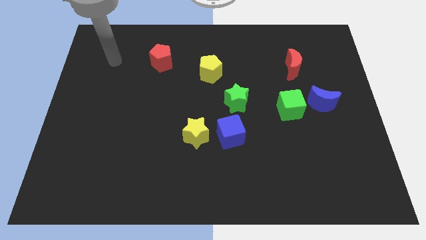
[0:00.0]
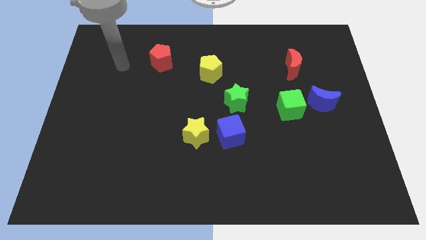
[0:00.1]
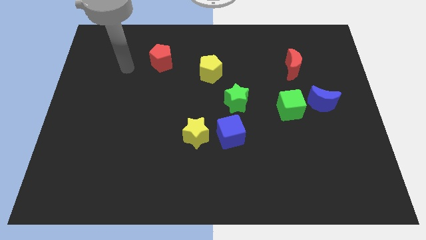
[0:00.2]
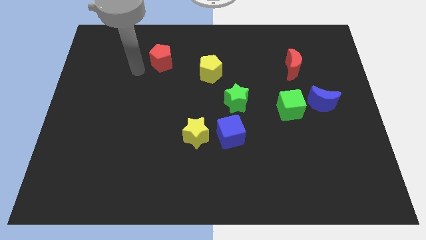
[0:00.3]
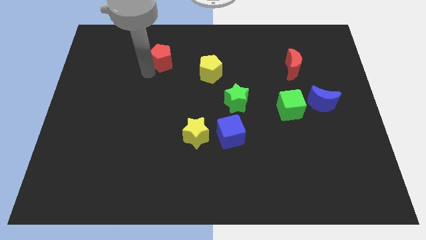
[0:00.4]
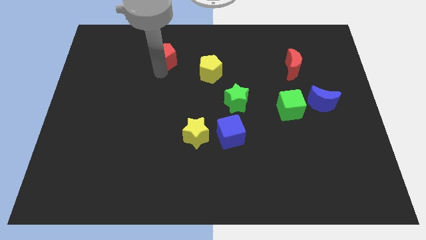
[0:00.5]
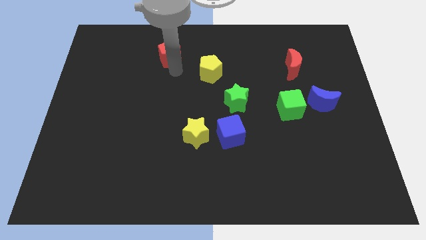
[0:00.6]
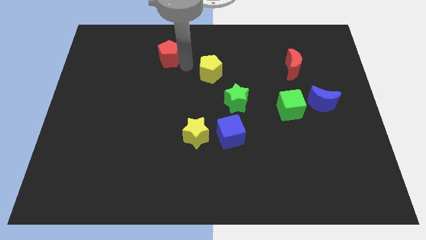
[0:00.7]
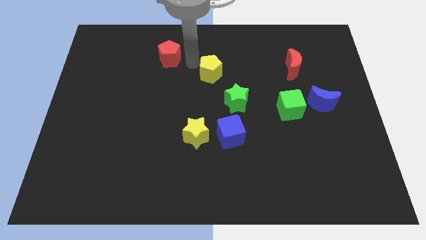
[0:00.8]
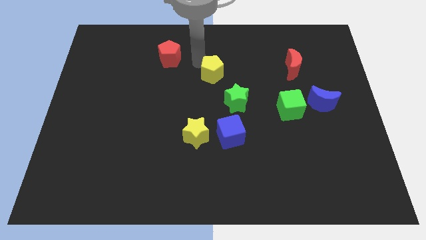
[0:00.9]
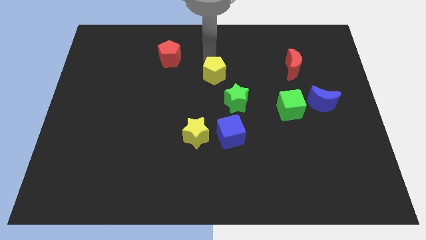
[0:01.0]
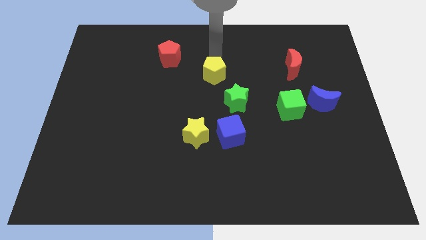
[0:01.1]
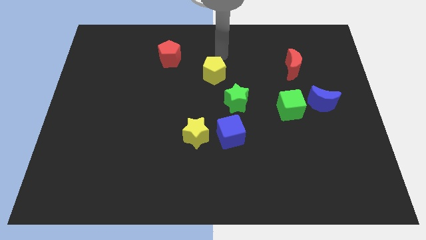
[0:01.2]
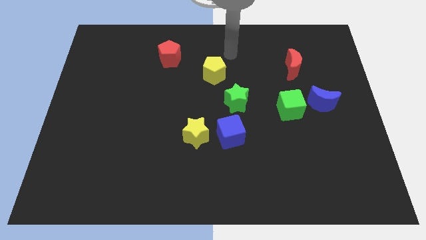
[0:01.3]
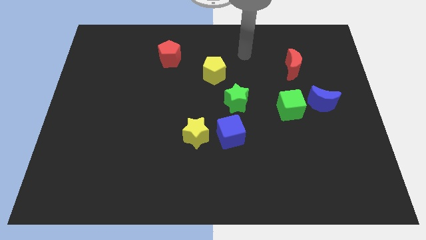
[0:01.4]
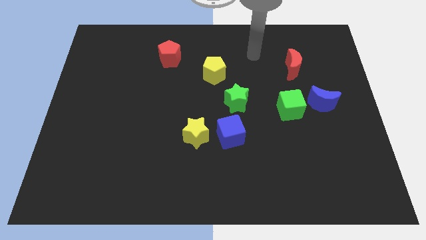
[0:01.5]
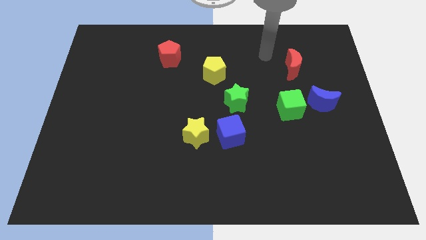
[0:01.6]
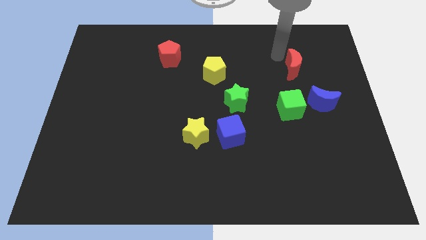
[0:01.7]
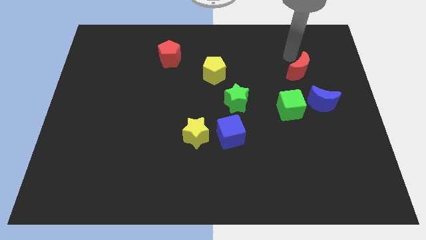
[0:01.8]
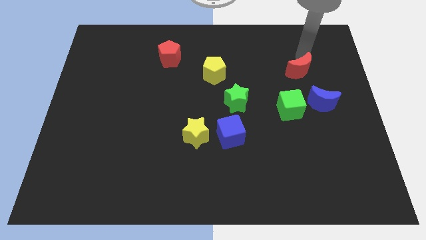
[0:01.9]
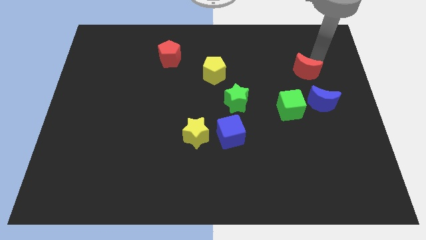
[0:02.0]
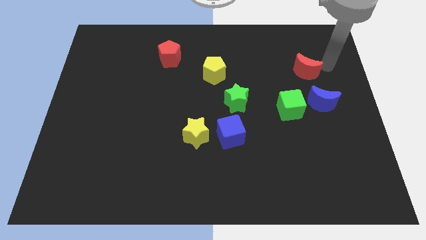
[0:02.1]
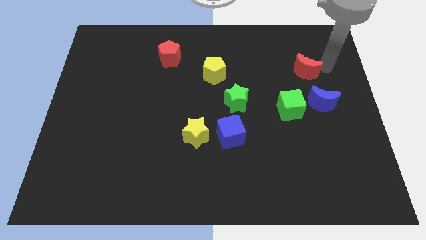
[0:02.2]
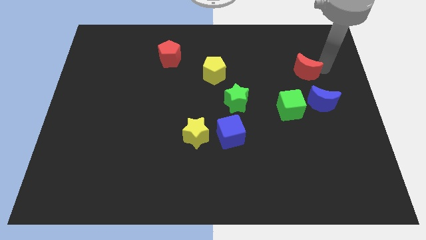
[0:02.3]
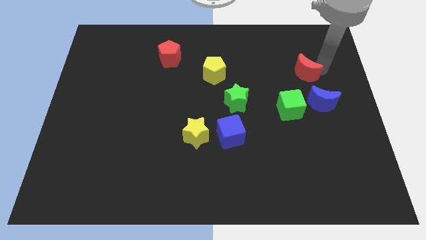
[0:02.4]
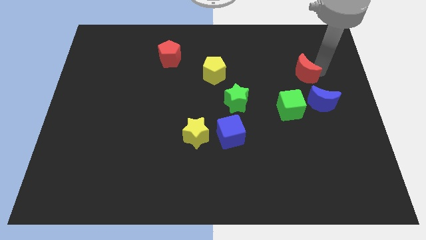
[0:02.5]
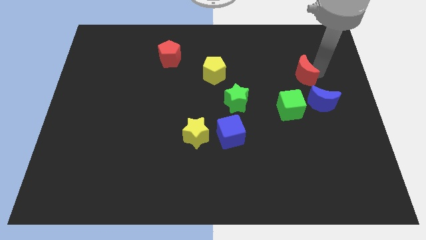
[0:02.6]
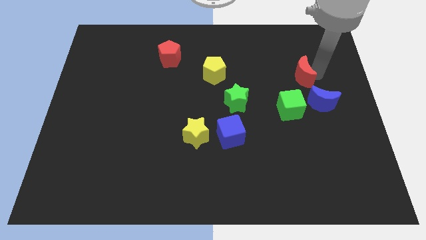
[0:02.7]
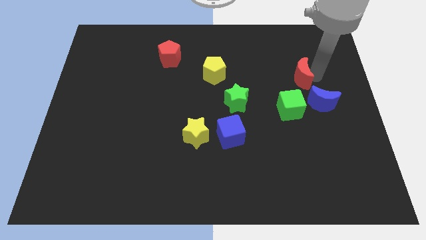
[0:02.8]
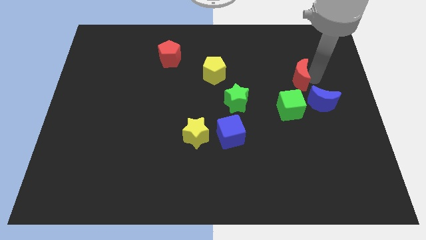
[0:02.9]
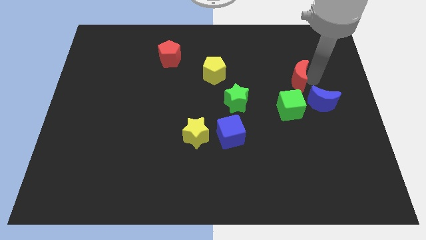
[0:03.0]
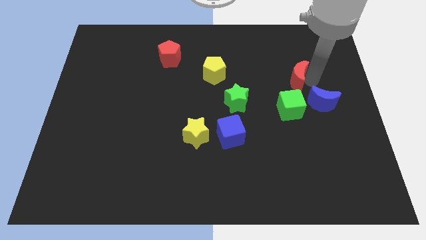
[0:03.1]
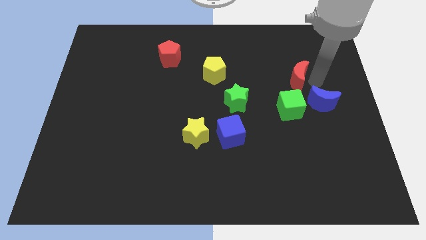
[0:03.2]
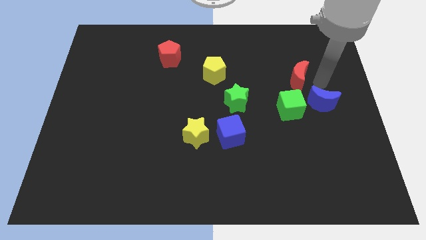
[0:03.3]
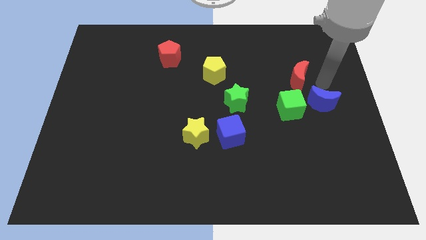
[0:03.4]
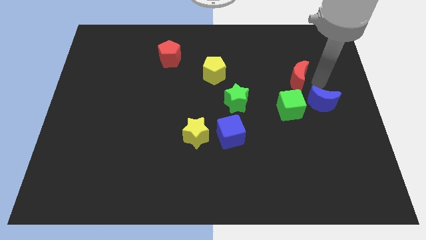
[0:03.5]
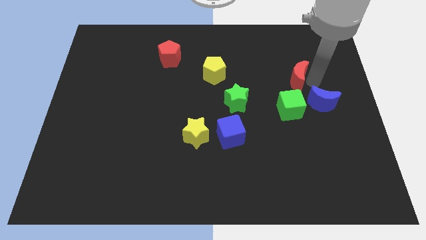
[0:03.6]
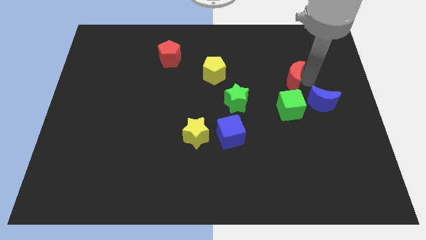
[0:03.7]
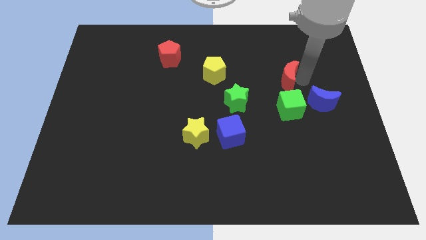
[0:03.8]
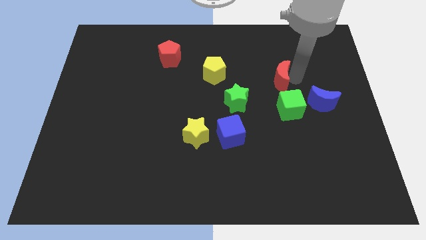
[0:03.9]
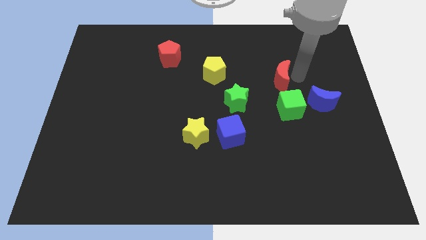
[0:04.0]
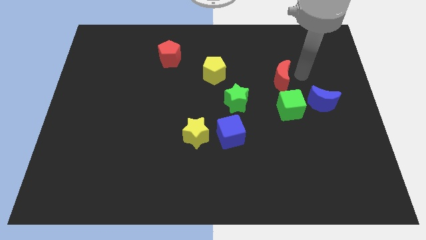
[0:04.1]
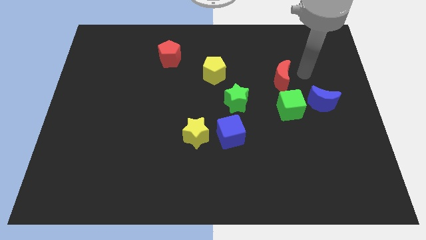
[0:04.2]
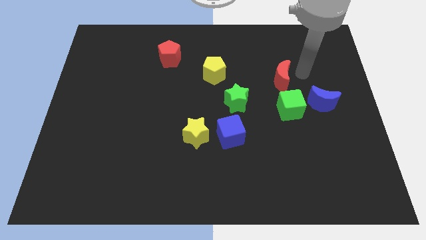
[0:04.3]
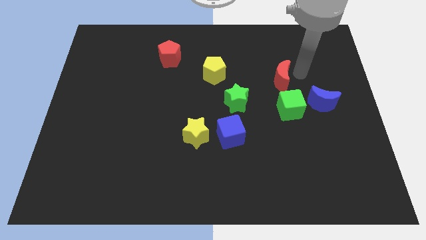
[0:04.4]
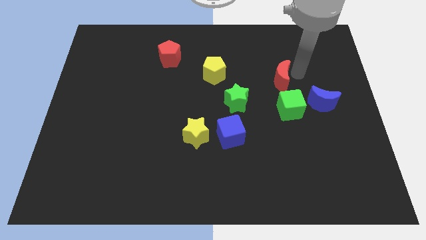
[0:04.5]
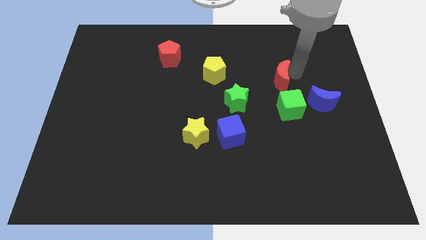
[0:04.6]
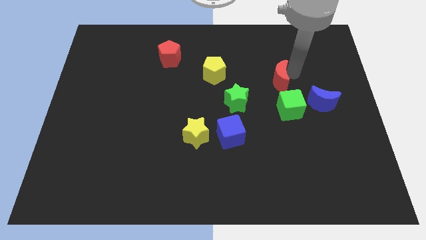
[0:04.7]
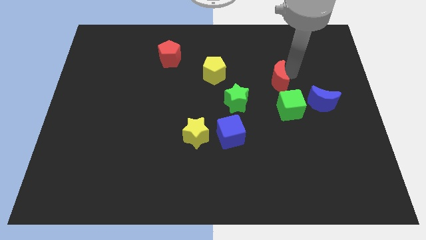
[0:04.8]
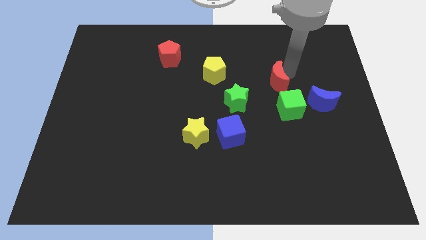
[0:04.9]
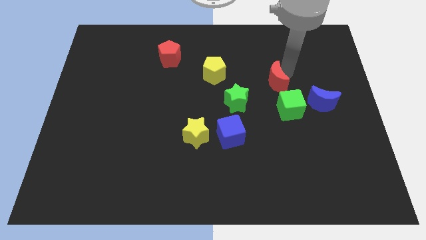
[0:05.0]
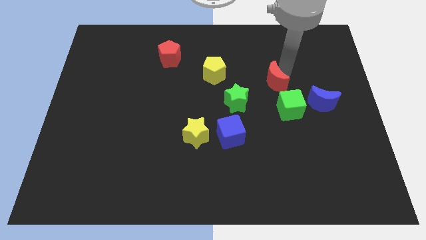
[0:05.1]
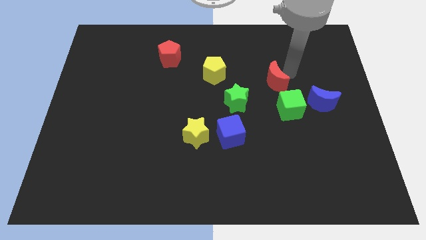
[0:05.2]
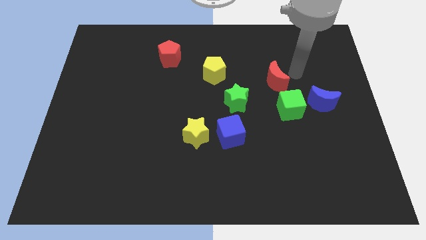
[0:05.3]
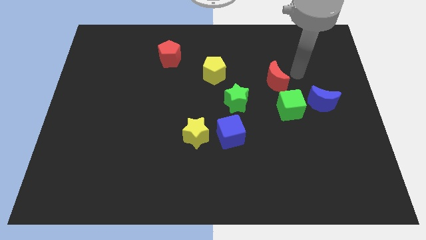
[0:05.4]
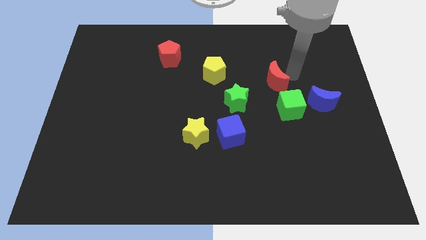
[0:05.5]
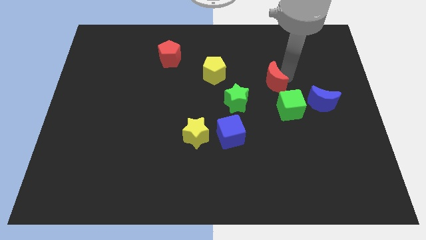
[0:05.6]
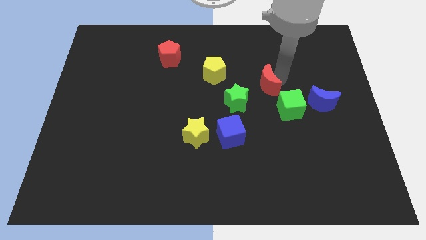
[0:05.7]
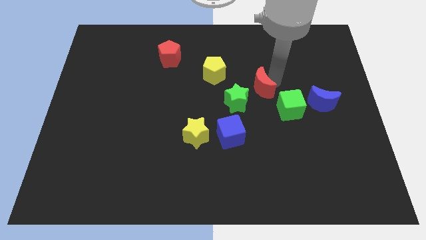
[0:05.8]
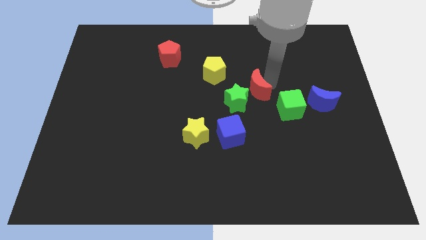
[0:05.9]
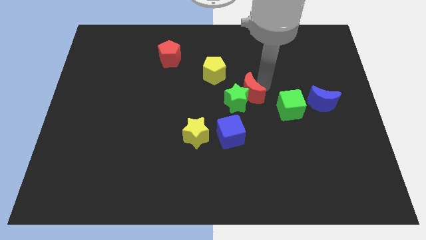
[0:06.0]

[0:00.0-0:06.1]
push the red moon towards the green star

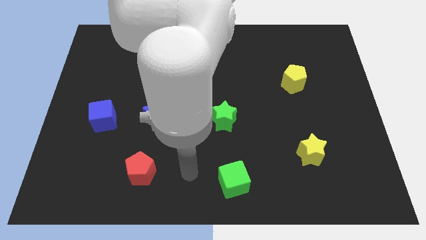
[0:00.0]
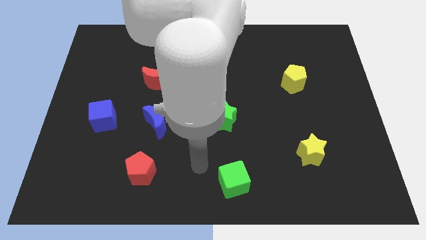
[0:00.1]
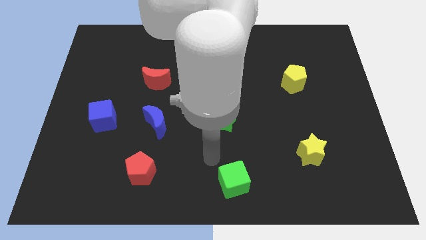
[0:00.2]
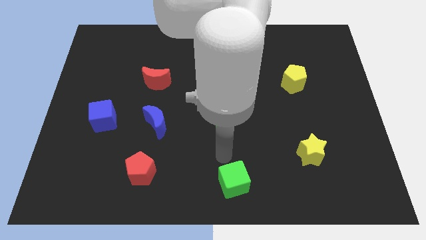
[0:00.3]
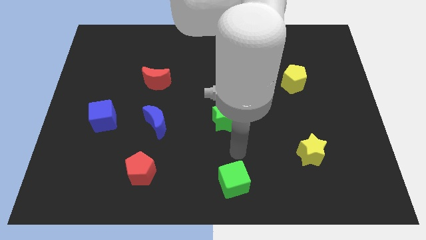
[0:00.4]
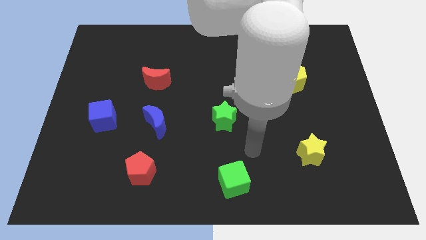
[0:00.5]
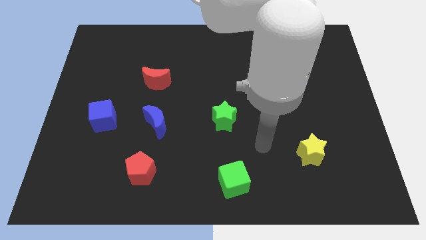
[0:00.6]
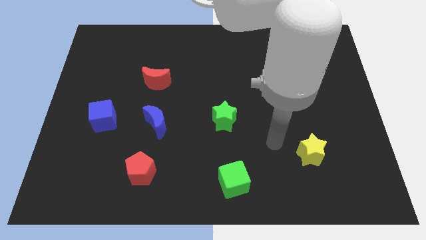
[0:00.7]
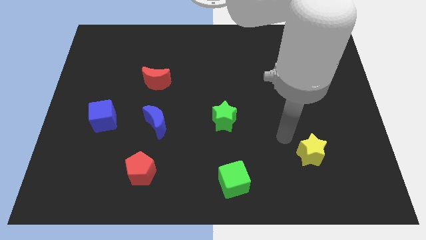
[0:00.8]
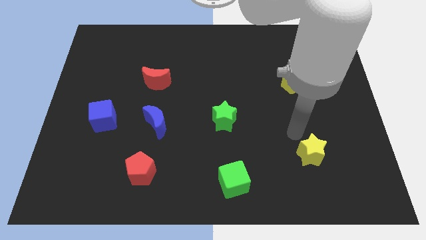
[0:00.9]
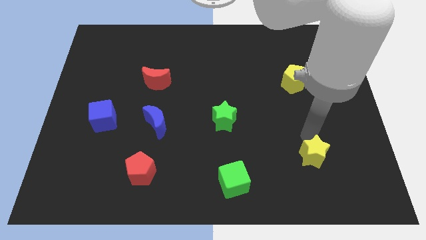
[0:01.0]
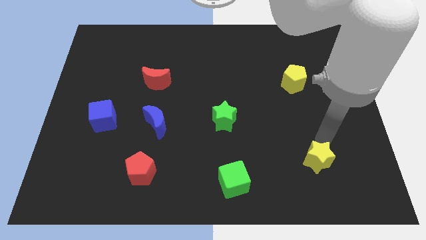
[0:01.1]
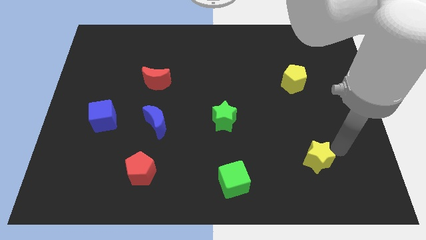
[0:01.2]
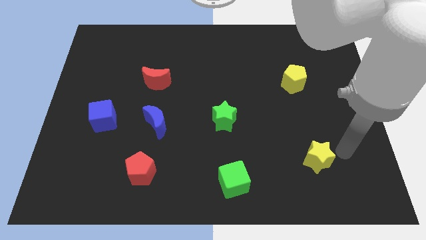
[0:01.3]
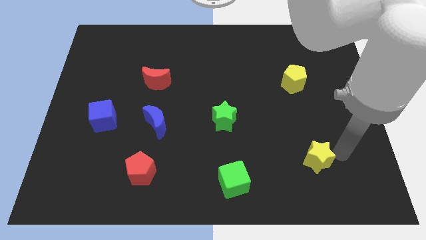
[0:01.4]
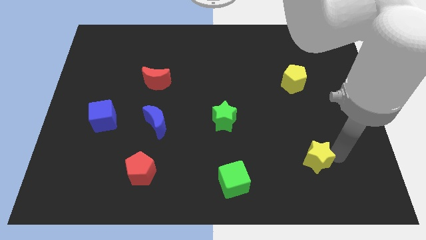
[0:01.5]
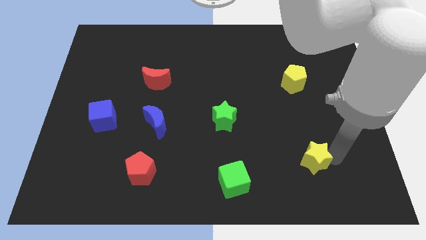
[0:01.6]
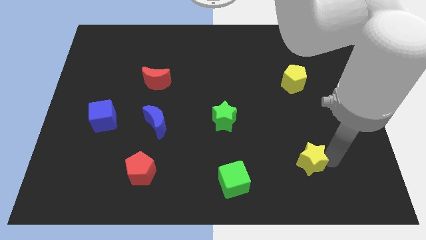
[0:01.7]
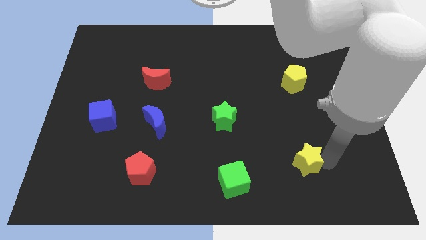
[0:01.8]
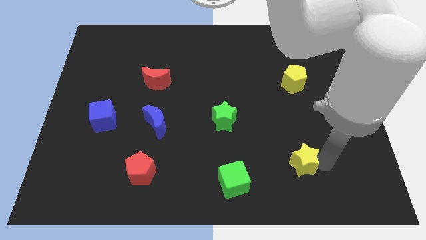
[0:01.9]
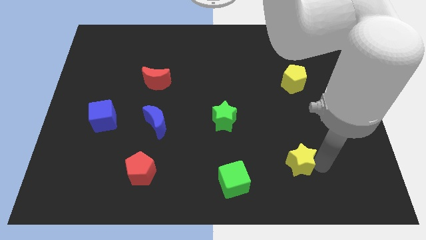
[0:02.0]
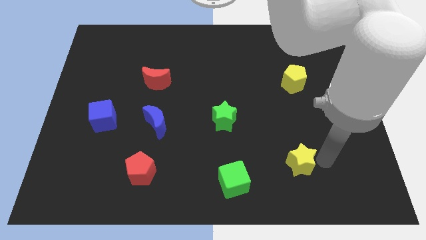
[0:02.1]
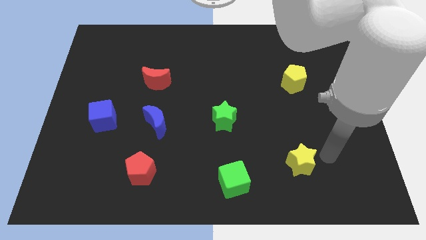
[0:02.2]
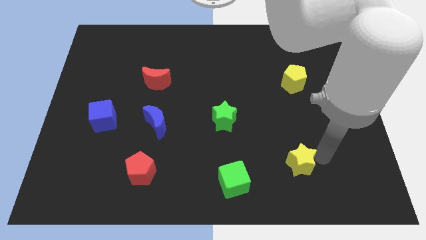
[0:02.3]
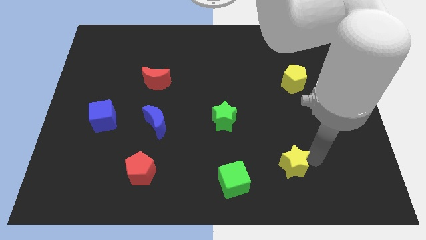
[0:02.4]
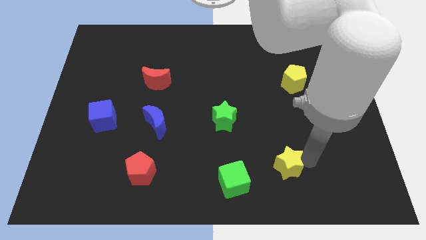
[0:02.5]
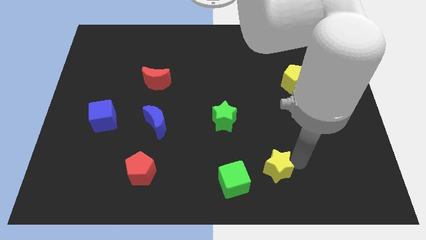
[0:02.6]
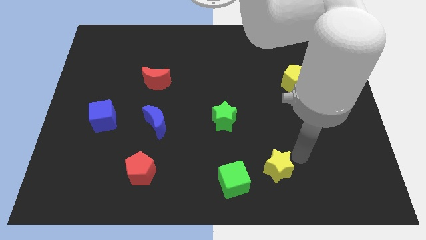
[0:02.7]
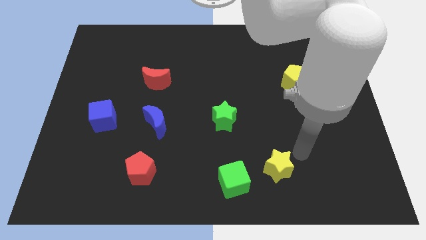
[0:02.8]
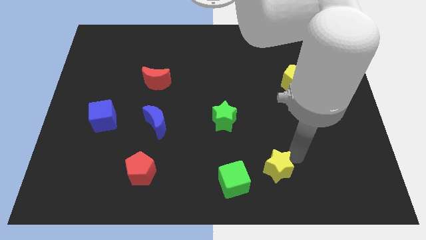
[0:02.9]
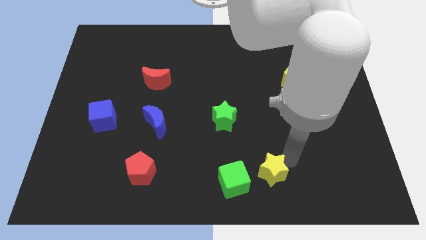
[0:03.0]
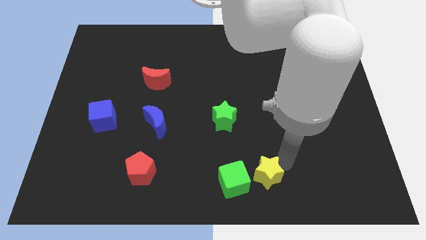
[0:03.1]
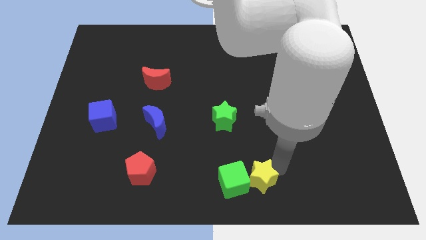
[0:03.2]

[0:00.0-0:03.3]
put the yellow star towards the green cube
